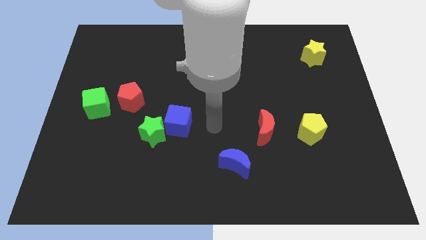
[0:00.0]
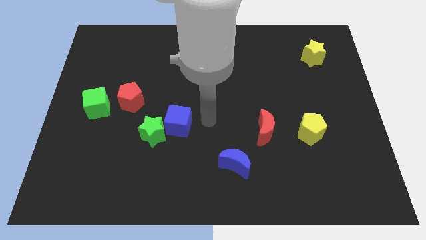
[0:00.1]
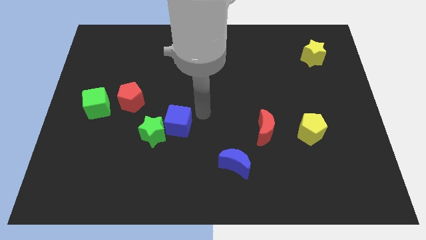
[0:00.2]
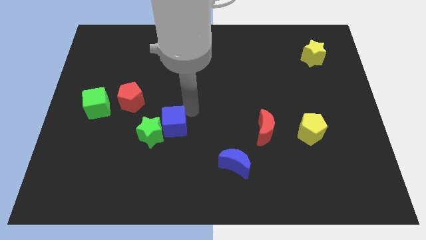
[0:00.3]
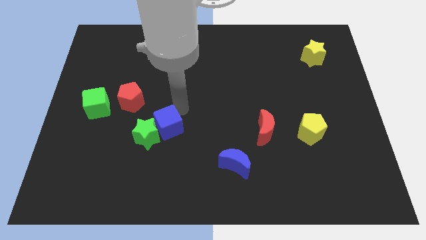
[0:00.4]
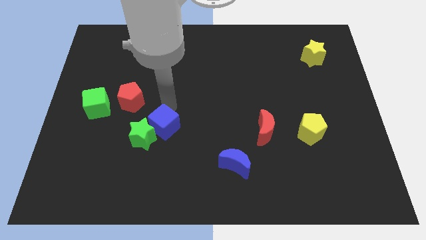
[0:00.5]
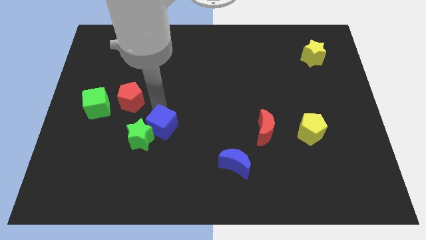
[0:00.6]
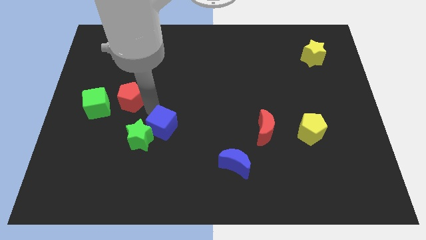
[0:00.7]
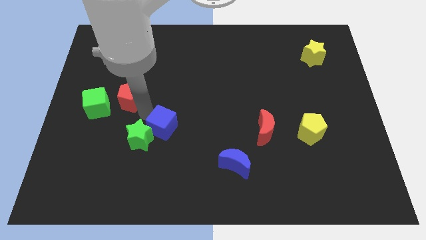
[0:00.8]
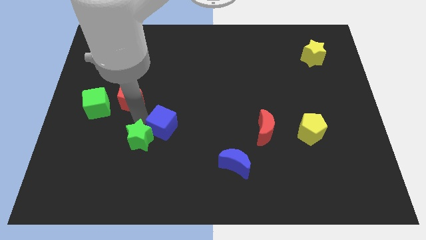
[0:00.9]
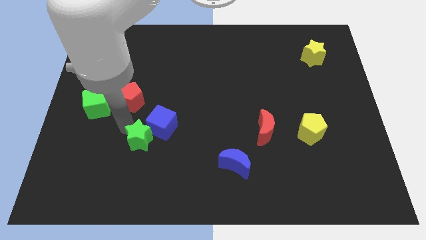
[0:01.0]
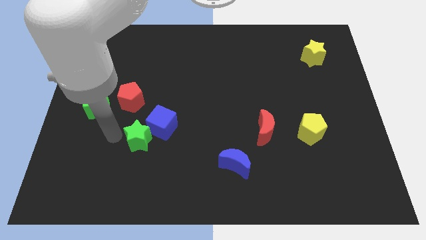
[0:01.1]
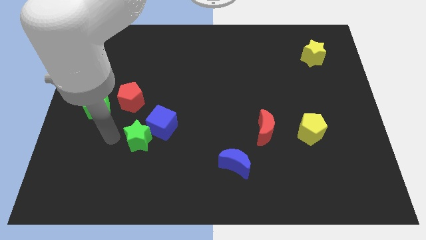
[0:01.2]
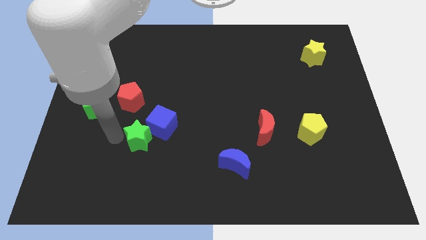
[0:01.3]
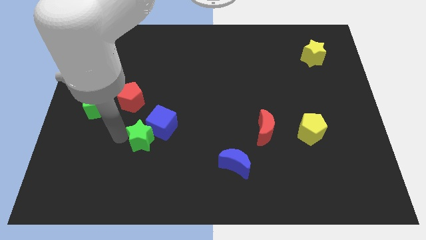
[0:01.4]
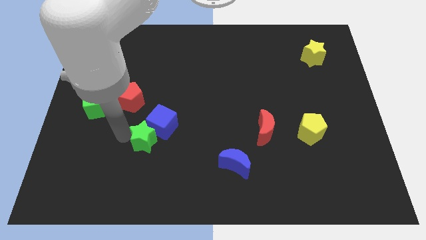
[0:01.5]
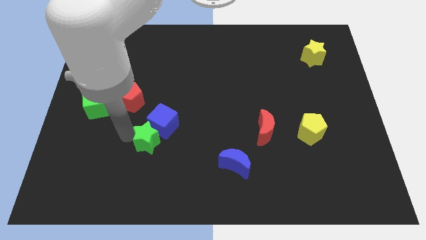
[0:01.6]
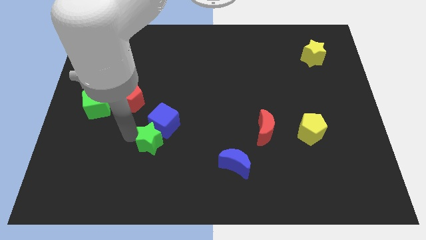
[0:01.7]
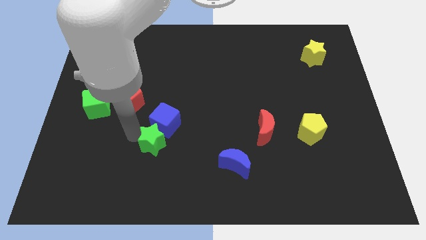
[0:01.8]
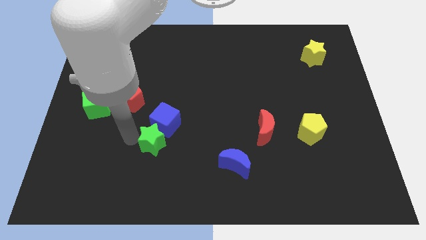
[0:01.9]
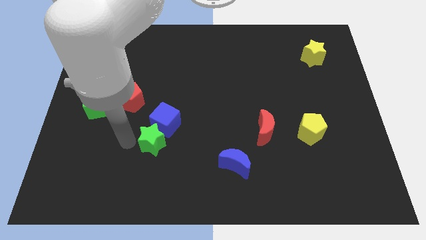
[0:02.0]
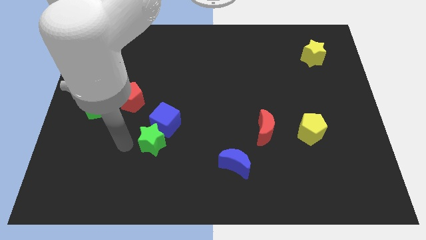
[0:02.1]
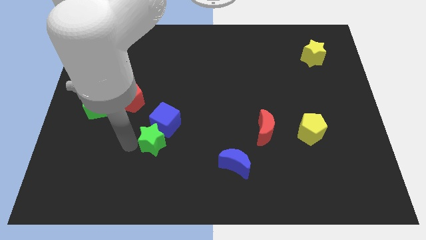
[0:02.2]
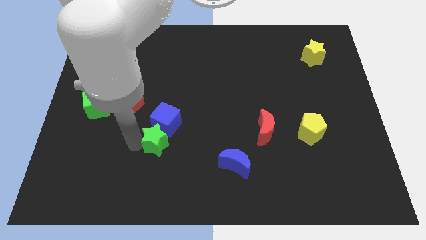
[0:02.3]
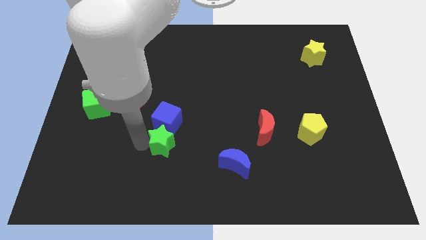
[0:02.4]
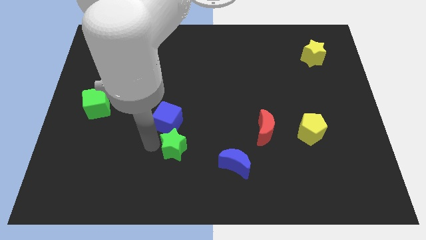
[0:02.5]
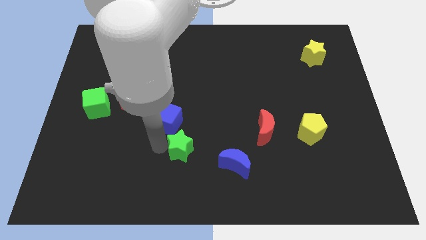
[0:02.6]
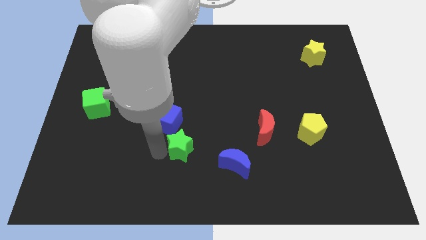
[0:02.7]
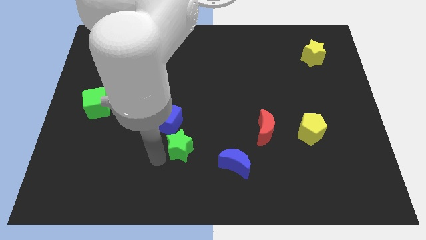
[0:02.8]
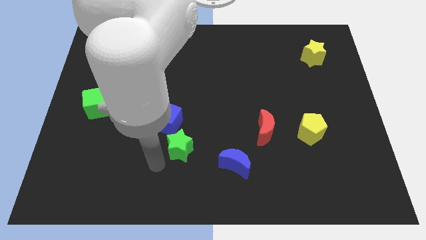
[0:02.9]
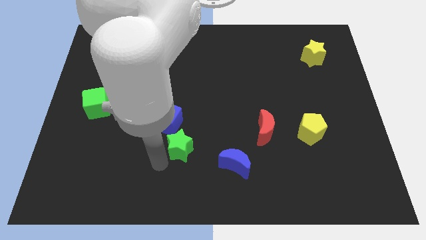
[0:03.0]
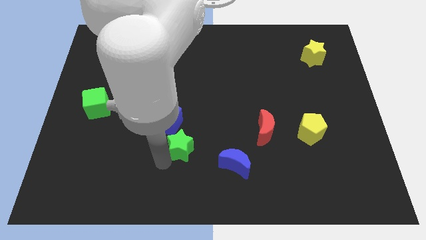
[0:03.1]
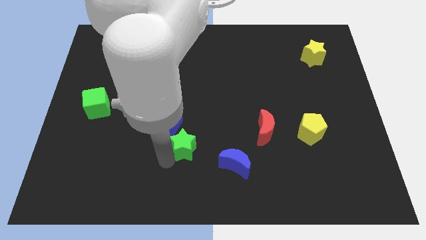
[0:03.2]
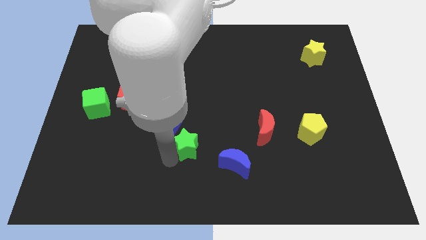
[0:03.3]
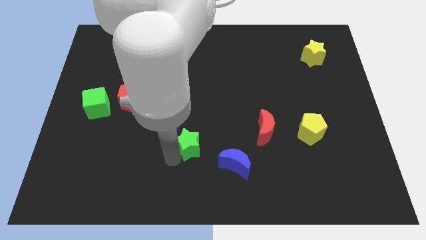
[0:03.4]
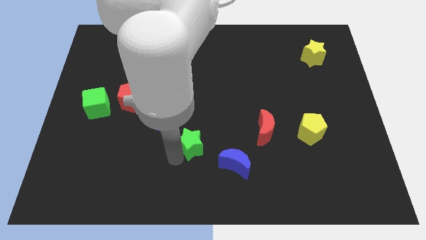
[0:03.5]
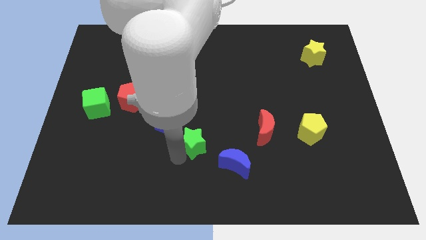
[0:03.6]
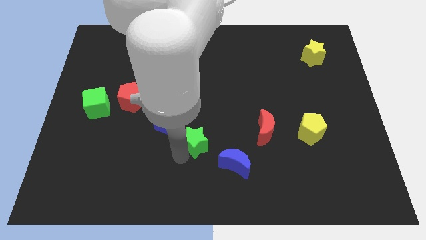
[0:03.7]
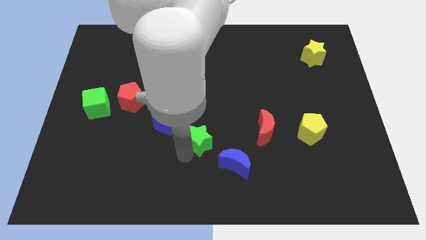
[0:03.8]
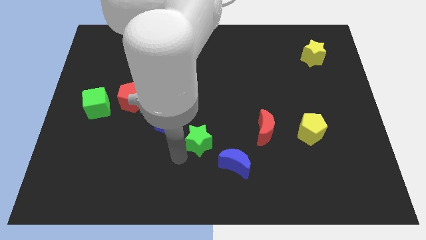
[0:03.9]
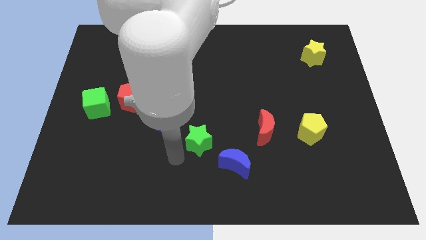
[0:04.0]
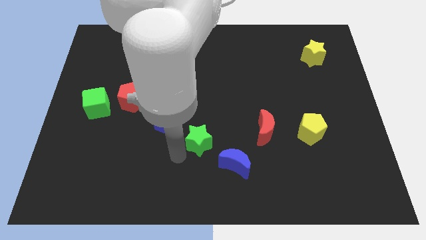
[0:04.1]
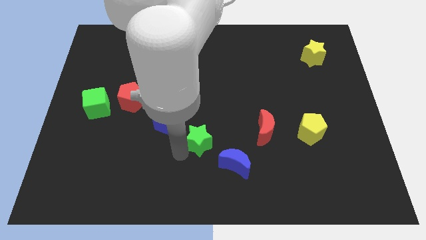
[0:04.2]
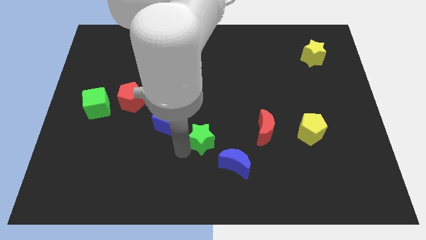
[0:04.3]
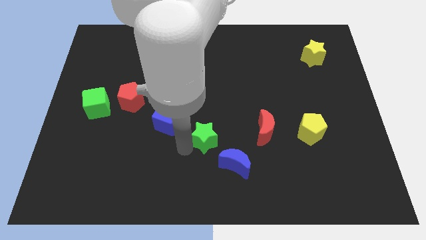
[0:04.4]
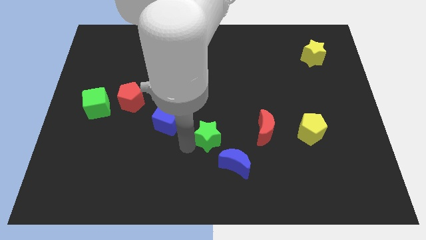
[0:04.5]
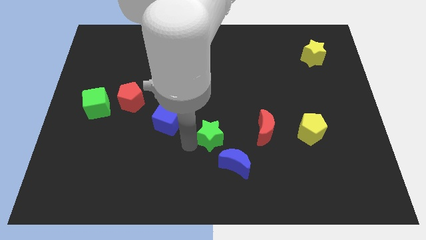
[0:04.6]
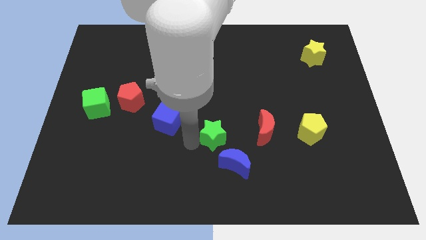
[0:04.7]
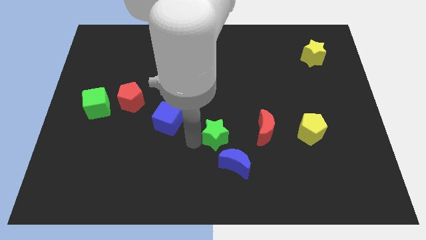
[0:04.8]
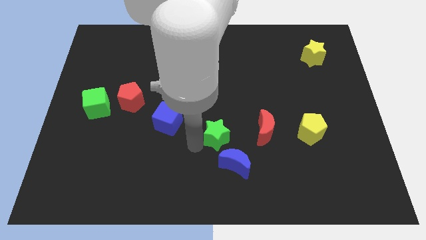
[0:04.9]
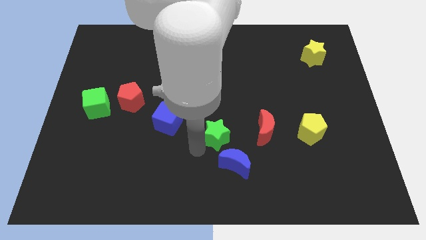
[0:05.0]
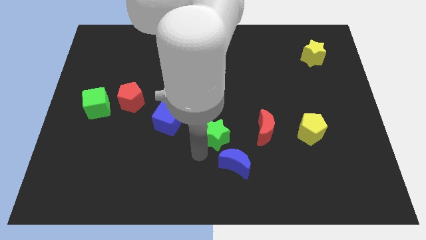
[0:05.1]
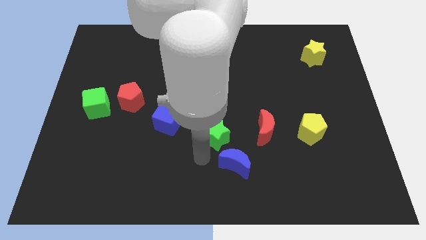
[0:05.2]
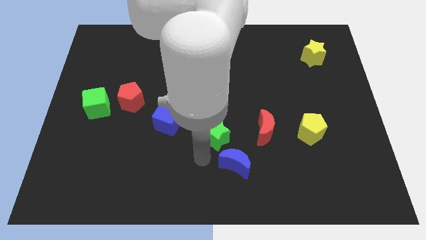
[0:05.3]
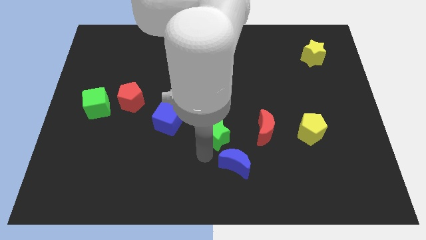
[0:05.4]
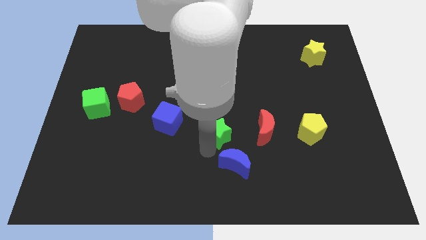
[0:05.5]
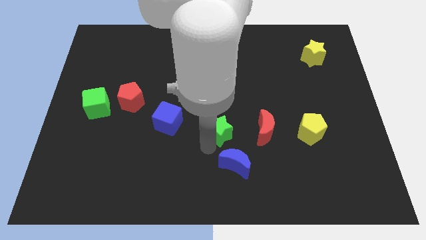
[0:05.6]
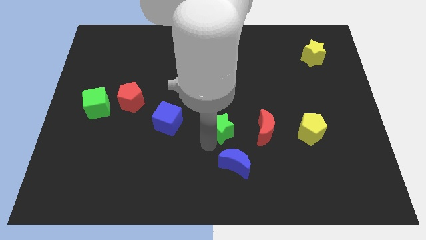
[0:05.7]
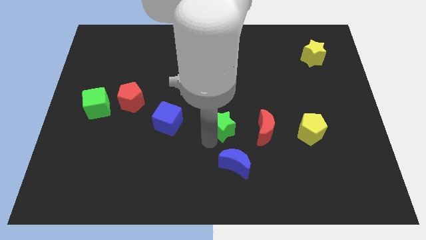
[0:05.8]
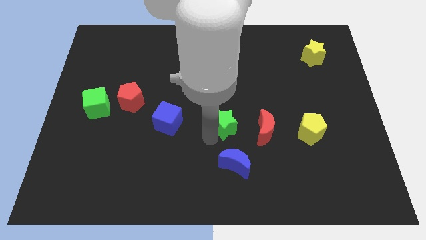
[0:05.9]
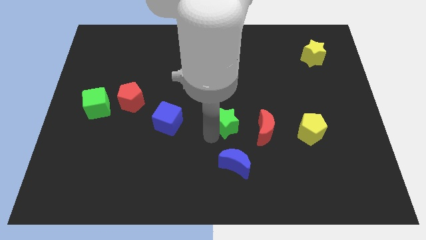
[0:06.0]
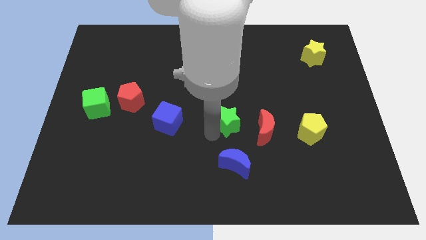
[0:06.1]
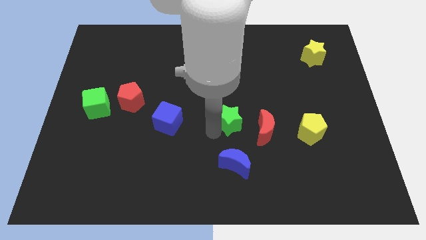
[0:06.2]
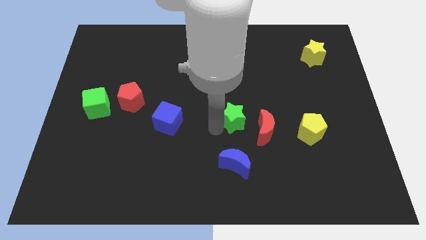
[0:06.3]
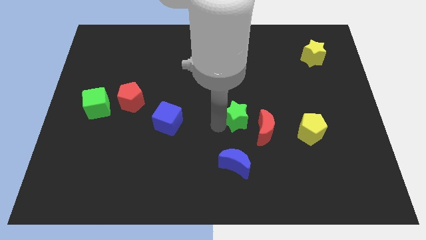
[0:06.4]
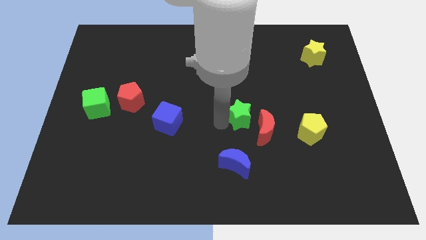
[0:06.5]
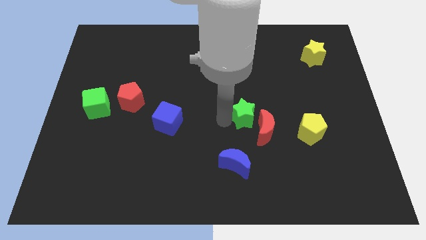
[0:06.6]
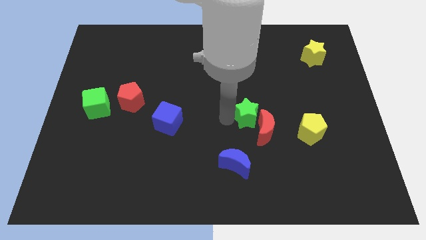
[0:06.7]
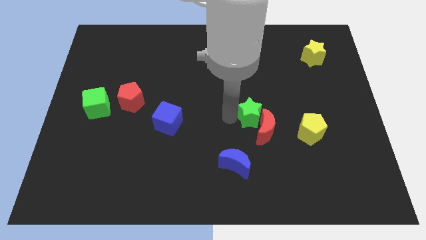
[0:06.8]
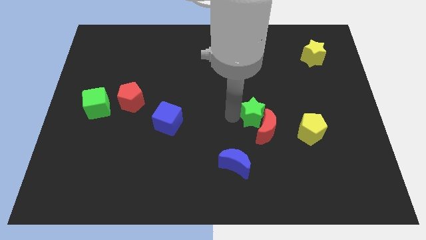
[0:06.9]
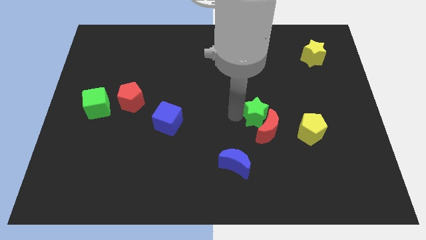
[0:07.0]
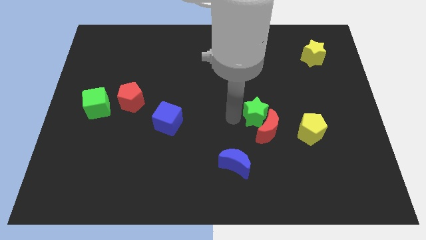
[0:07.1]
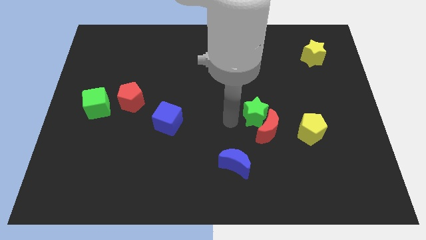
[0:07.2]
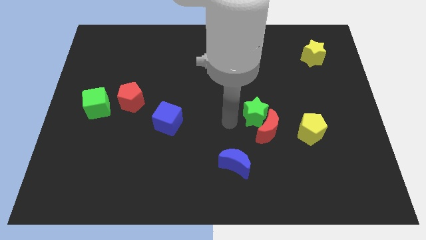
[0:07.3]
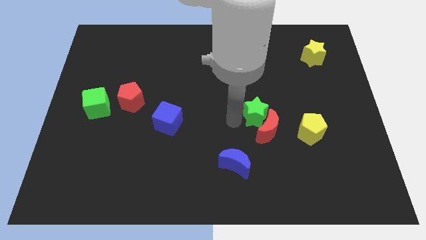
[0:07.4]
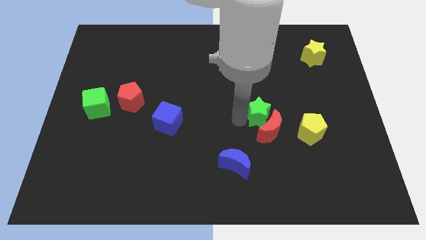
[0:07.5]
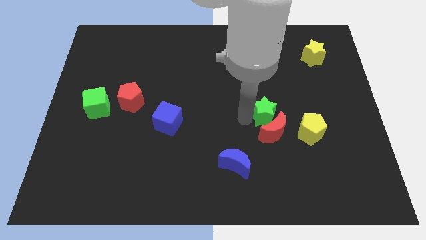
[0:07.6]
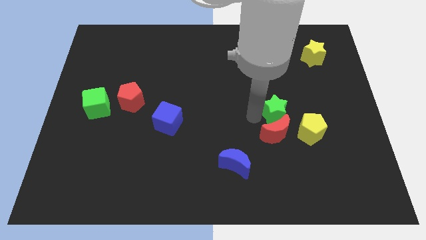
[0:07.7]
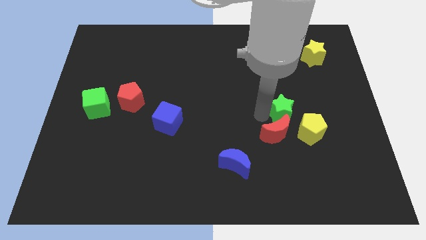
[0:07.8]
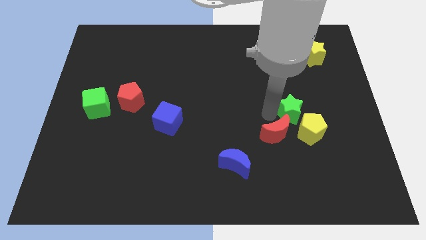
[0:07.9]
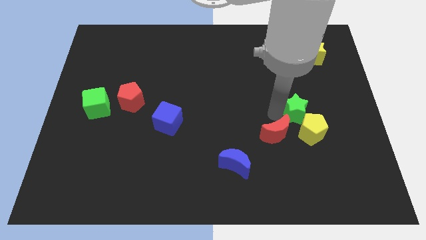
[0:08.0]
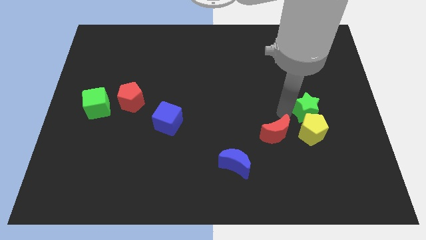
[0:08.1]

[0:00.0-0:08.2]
move the green star to the top right of the yellow pentagon
